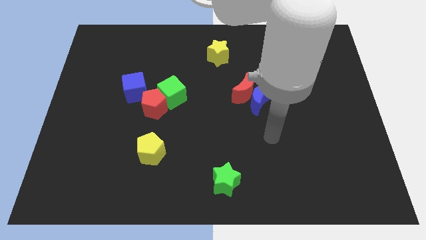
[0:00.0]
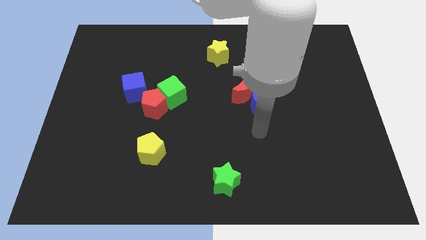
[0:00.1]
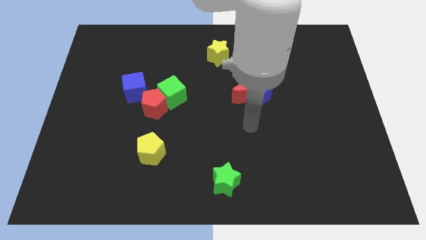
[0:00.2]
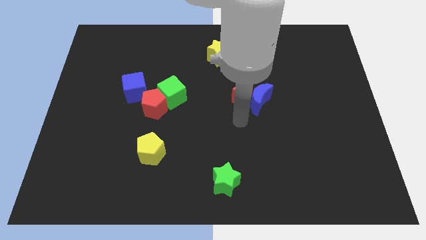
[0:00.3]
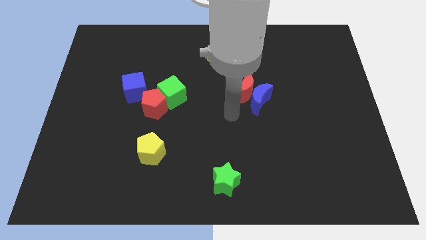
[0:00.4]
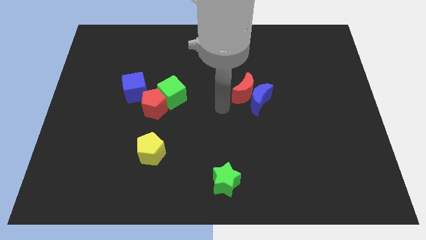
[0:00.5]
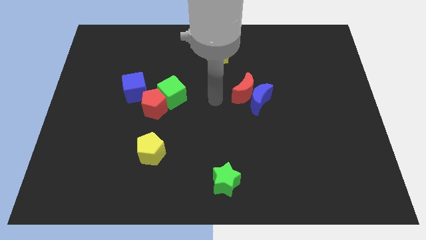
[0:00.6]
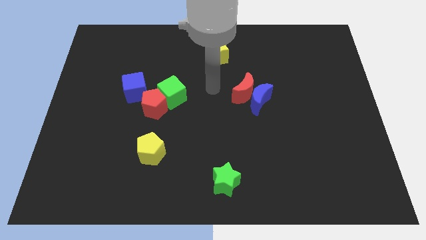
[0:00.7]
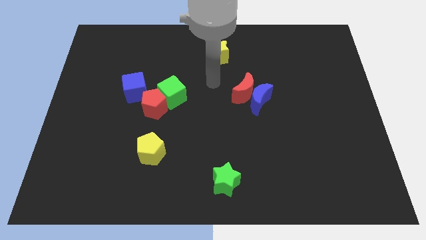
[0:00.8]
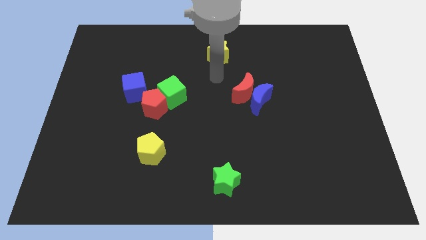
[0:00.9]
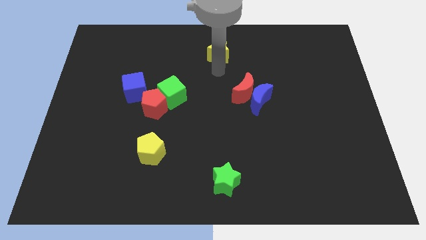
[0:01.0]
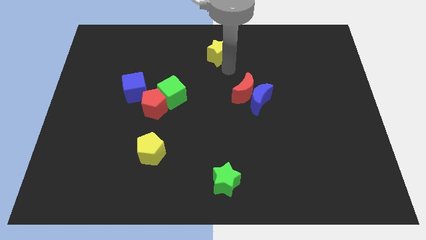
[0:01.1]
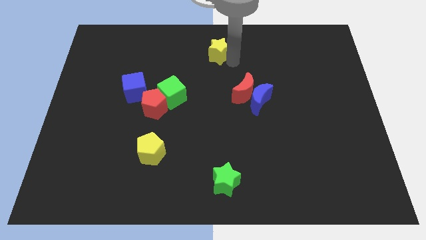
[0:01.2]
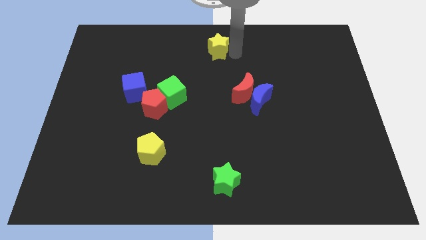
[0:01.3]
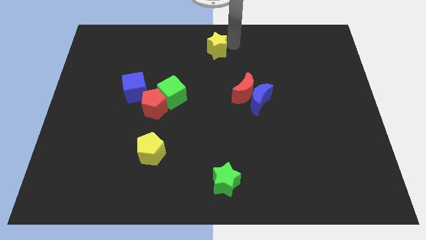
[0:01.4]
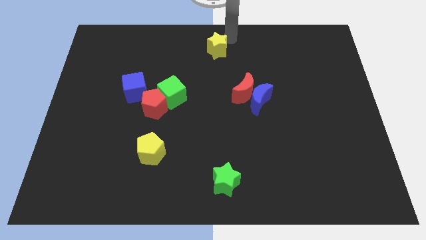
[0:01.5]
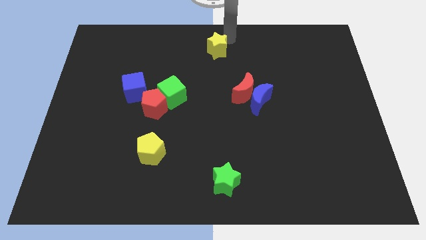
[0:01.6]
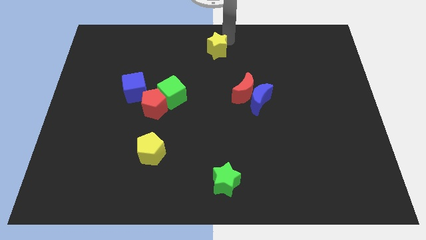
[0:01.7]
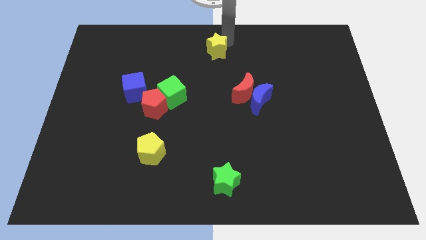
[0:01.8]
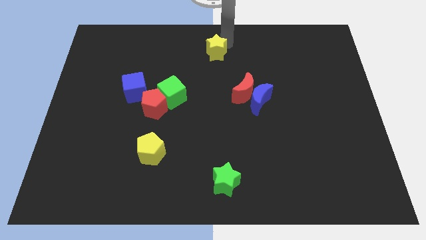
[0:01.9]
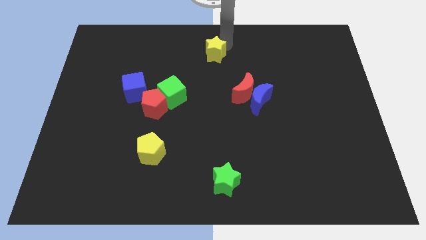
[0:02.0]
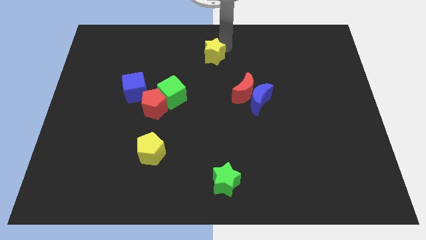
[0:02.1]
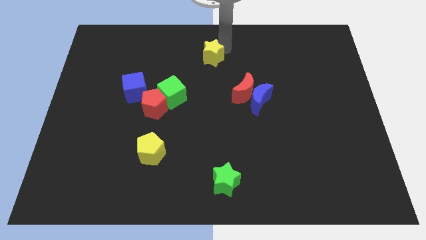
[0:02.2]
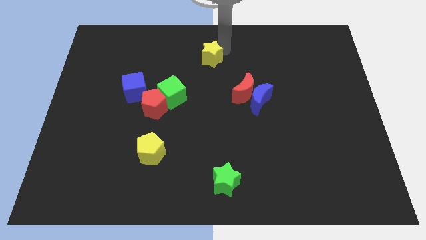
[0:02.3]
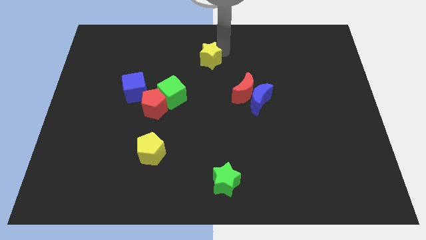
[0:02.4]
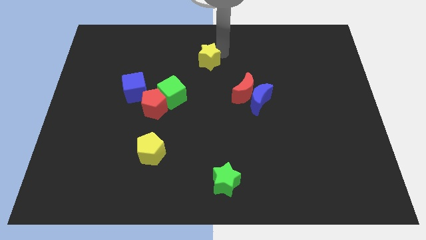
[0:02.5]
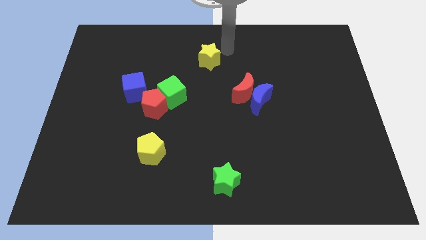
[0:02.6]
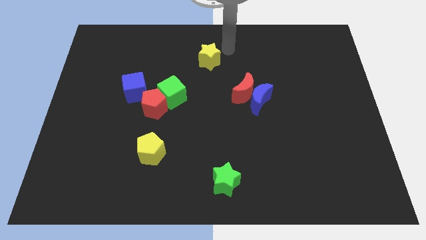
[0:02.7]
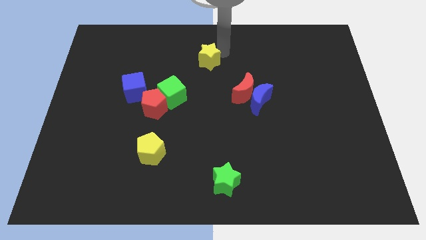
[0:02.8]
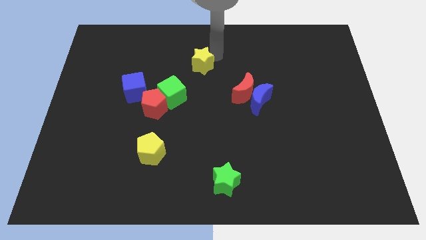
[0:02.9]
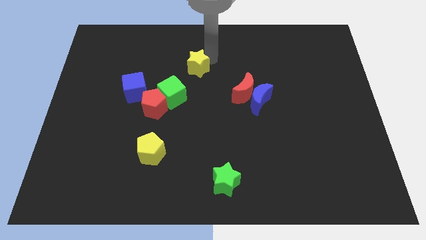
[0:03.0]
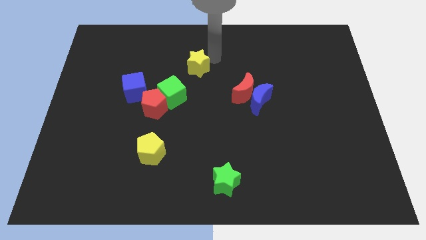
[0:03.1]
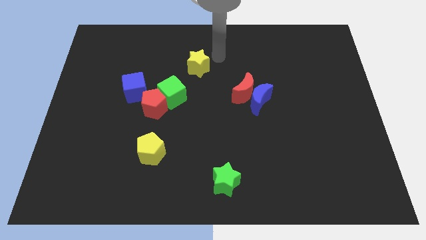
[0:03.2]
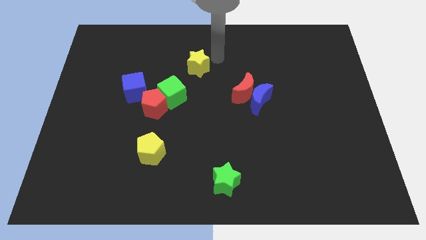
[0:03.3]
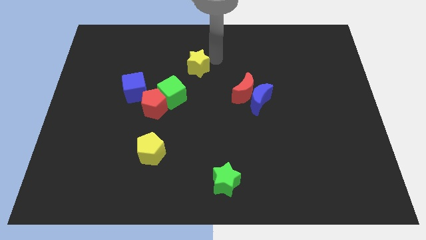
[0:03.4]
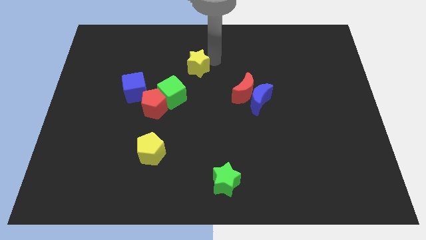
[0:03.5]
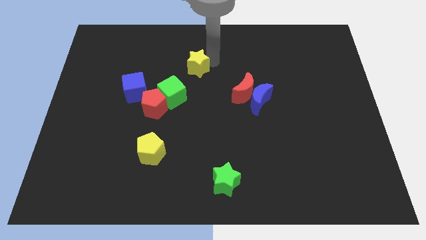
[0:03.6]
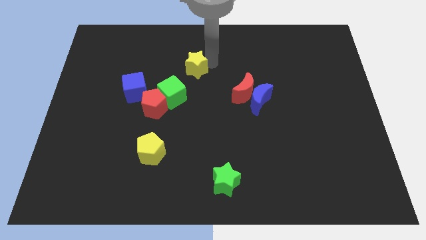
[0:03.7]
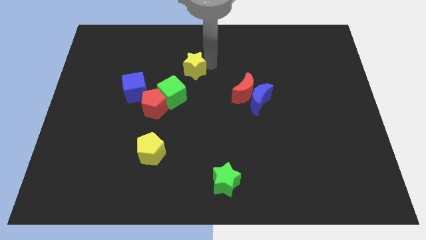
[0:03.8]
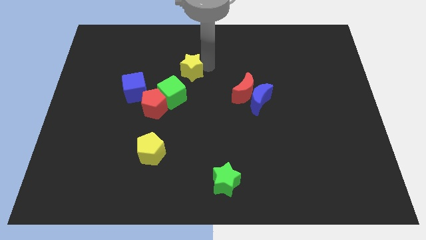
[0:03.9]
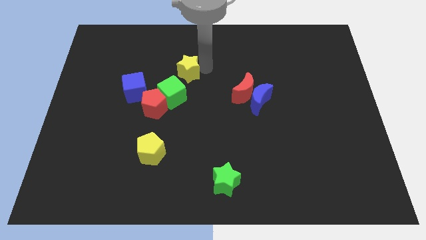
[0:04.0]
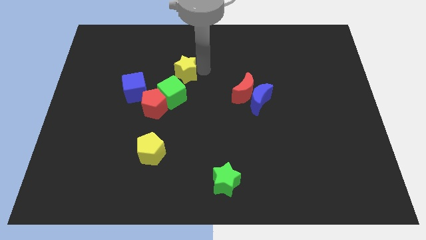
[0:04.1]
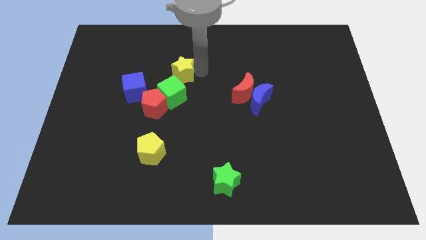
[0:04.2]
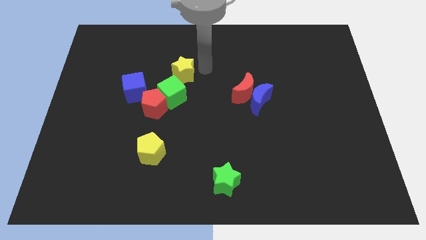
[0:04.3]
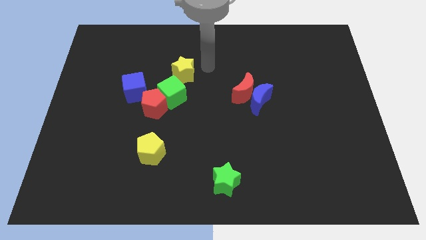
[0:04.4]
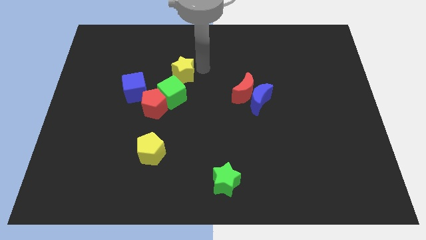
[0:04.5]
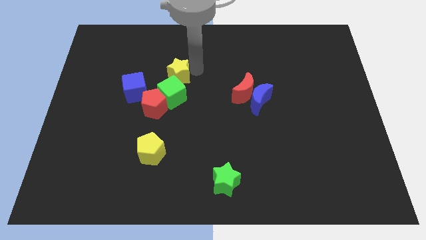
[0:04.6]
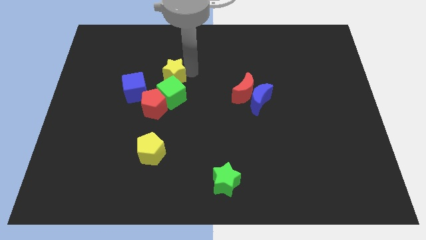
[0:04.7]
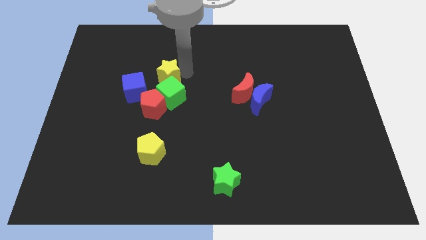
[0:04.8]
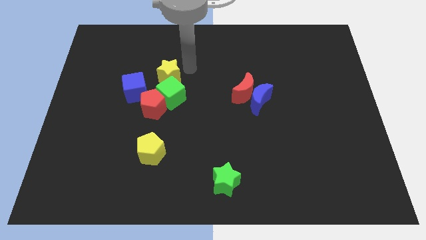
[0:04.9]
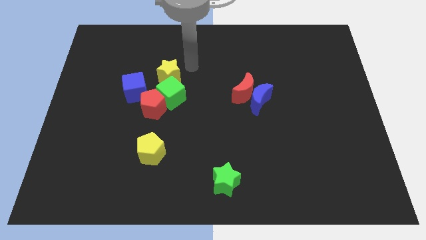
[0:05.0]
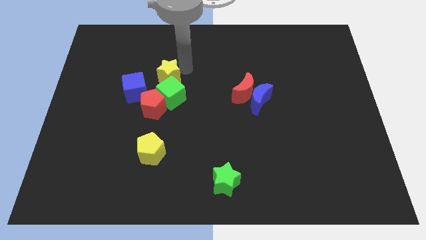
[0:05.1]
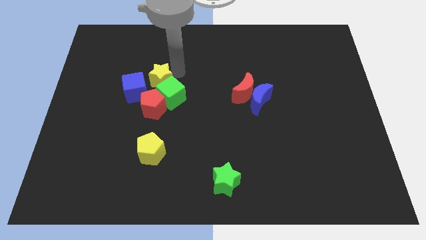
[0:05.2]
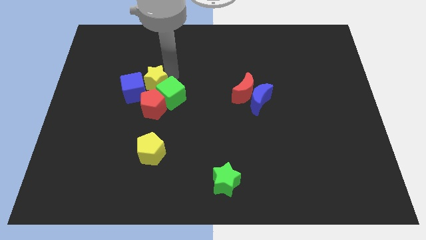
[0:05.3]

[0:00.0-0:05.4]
move the yellow star close to the blue cube

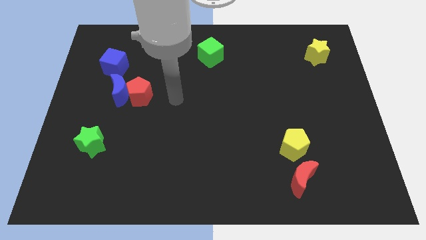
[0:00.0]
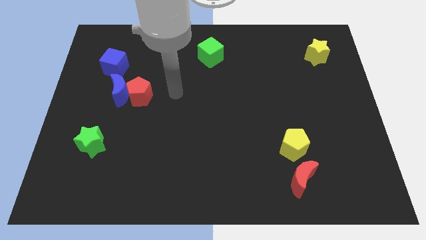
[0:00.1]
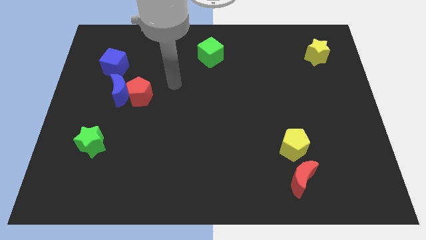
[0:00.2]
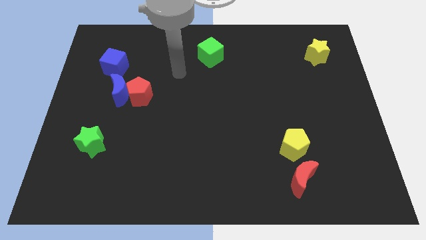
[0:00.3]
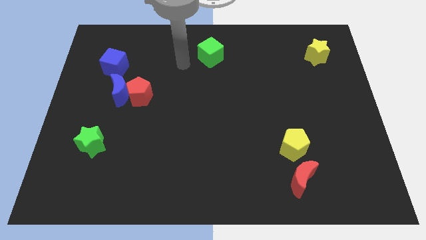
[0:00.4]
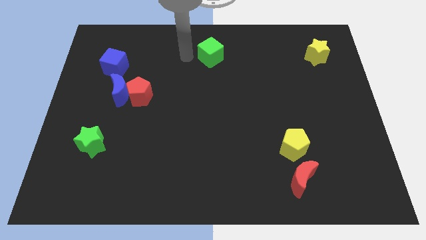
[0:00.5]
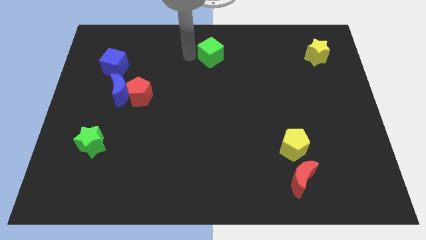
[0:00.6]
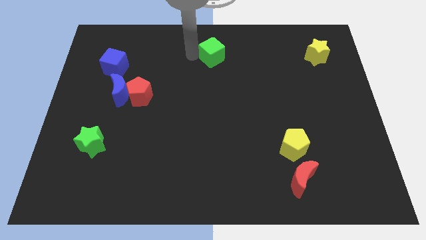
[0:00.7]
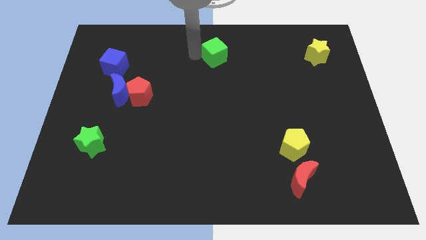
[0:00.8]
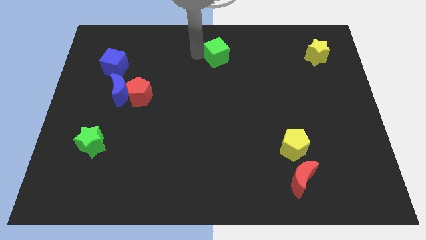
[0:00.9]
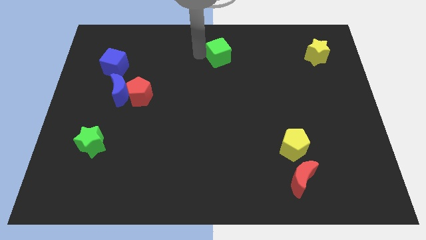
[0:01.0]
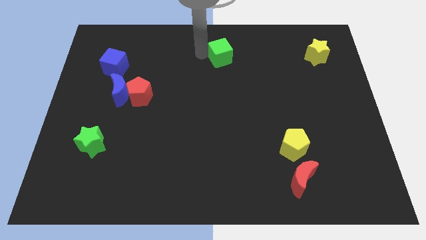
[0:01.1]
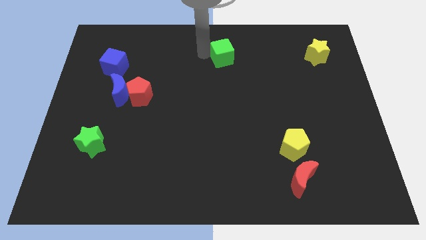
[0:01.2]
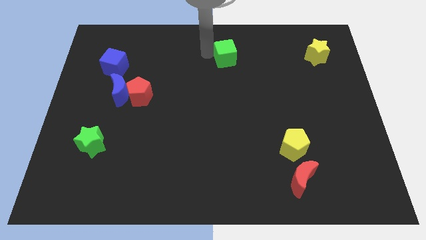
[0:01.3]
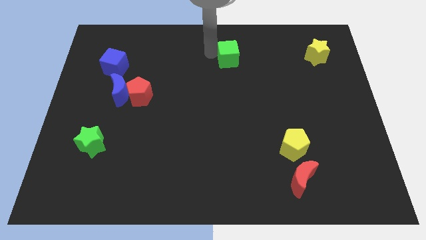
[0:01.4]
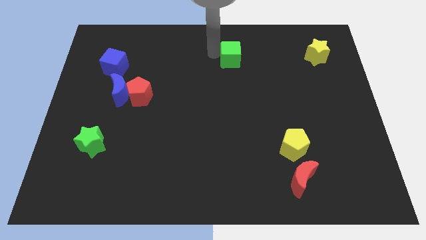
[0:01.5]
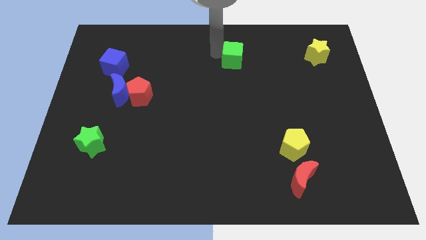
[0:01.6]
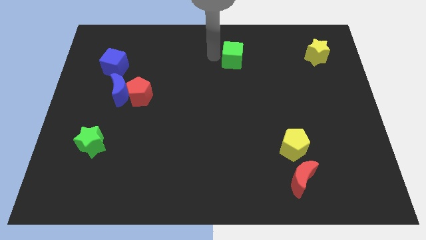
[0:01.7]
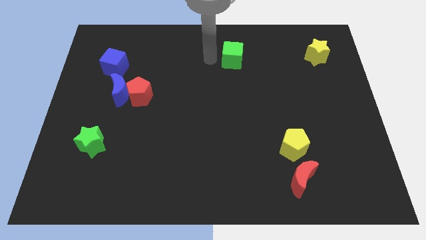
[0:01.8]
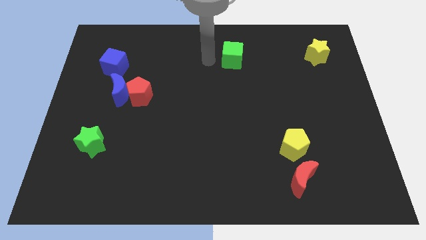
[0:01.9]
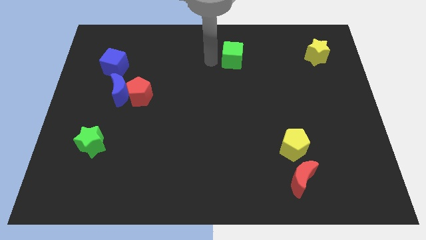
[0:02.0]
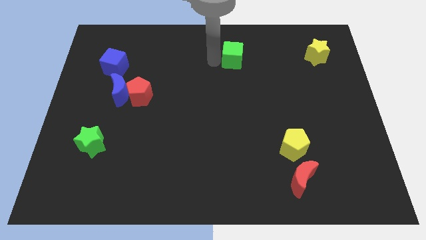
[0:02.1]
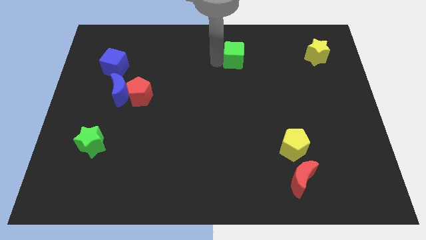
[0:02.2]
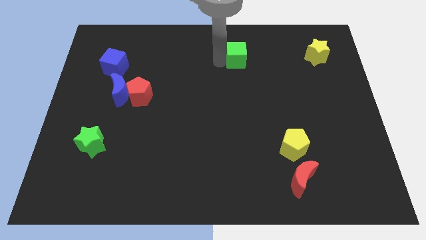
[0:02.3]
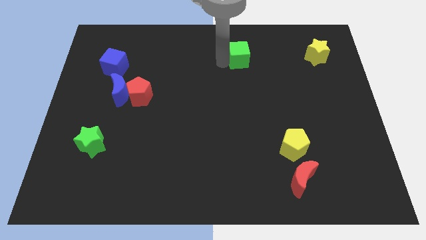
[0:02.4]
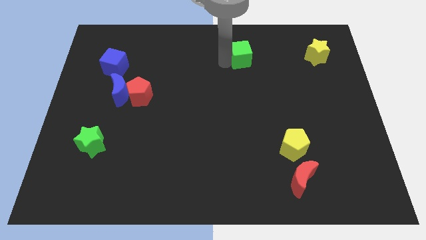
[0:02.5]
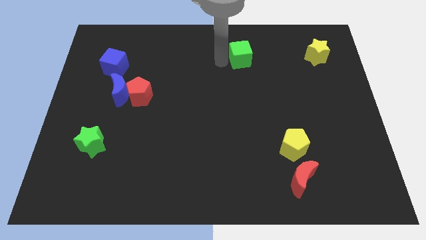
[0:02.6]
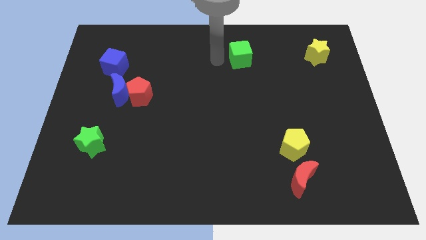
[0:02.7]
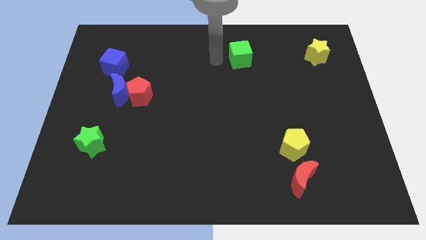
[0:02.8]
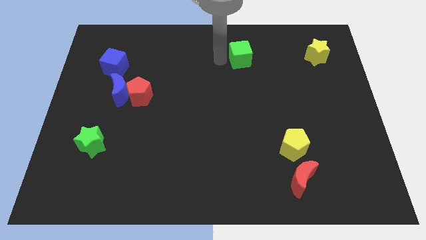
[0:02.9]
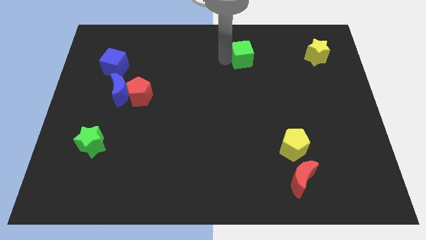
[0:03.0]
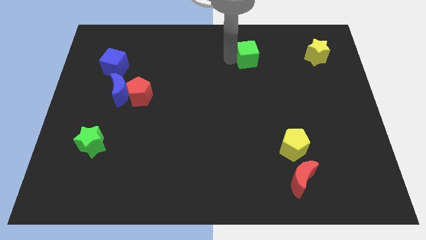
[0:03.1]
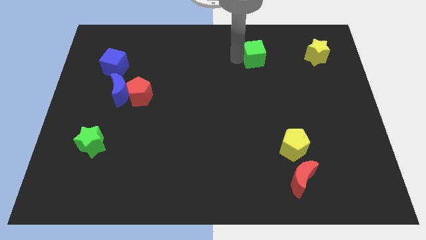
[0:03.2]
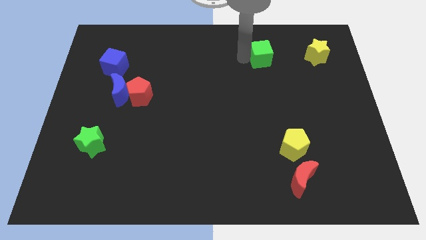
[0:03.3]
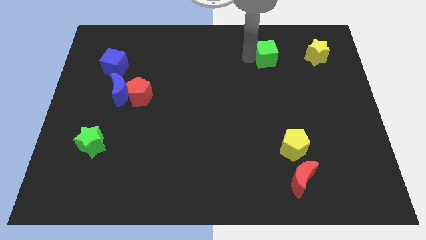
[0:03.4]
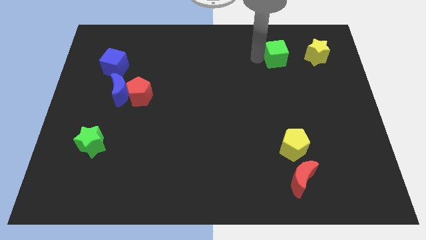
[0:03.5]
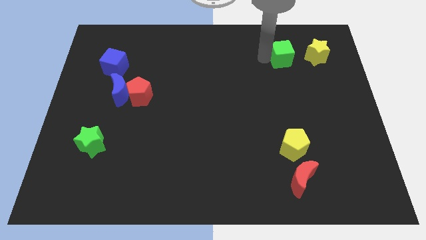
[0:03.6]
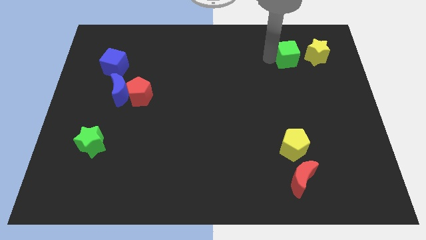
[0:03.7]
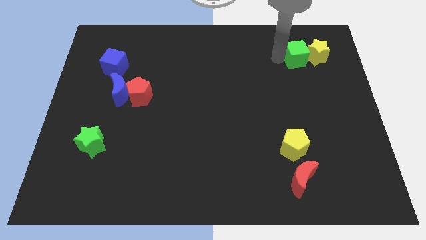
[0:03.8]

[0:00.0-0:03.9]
slide the green cube towards the yellow star
